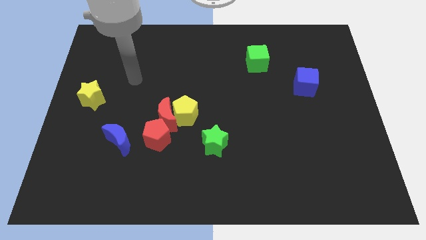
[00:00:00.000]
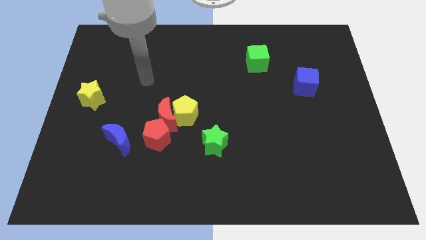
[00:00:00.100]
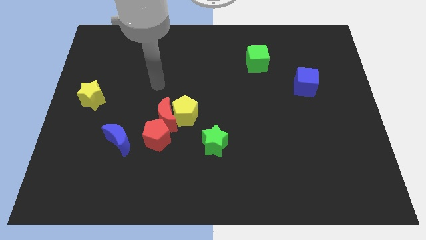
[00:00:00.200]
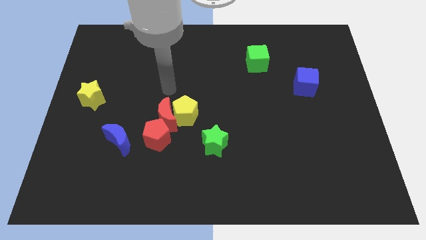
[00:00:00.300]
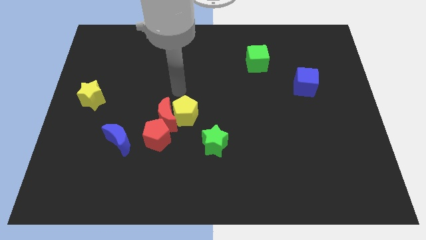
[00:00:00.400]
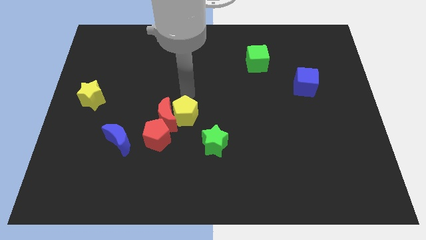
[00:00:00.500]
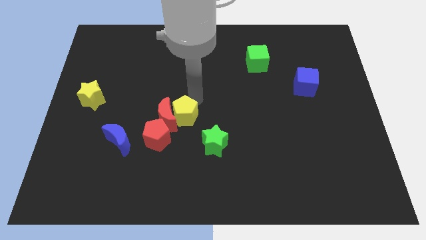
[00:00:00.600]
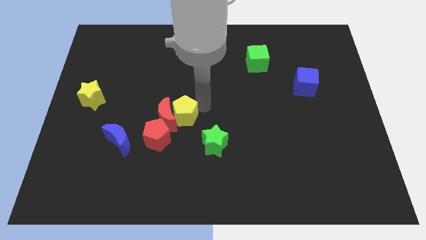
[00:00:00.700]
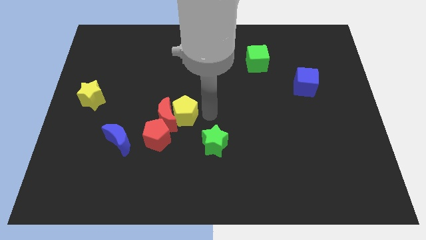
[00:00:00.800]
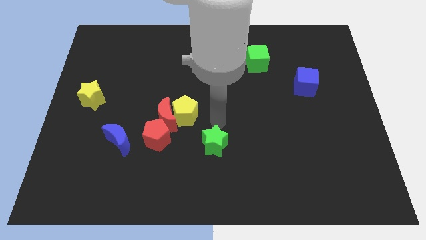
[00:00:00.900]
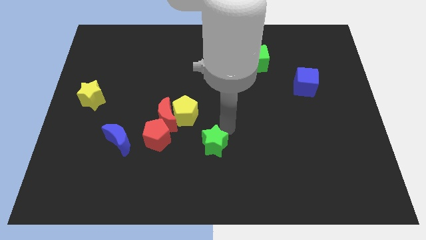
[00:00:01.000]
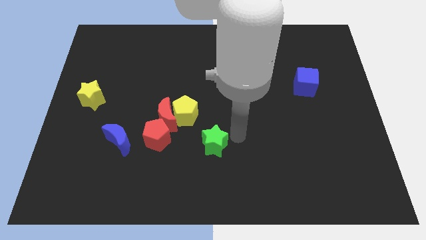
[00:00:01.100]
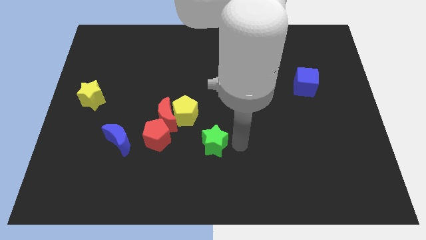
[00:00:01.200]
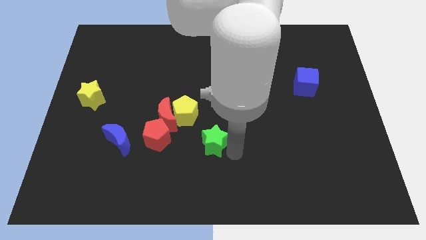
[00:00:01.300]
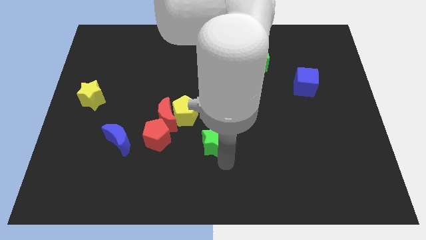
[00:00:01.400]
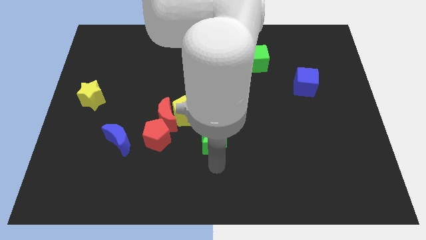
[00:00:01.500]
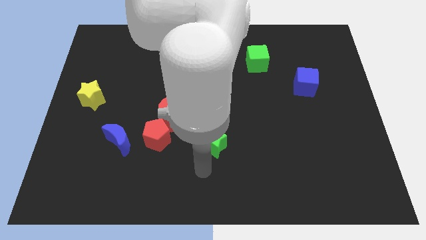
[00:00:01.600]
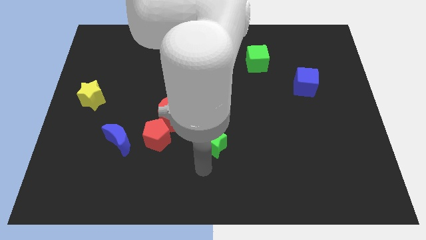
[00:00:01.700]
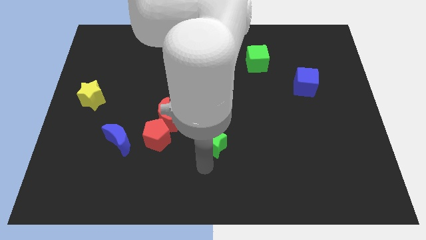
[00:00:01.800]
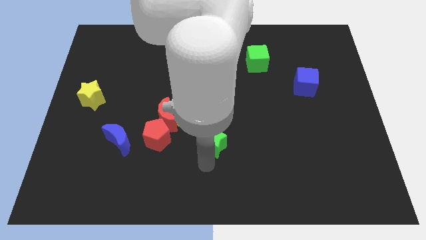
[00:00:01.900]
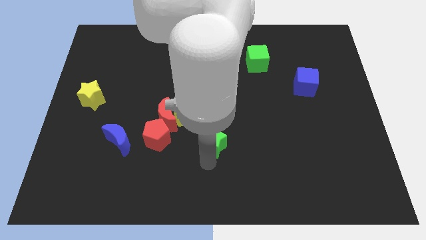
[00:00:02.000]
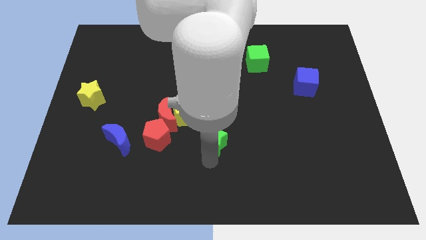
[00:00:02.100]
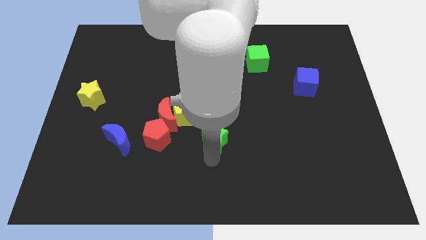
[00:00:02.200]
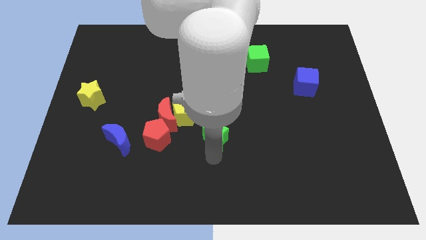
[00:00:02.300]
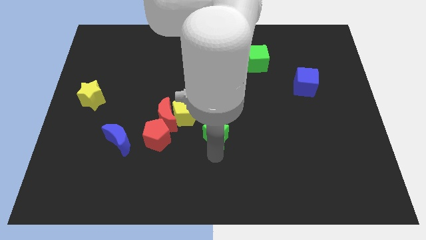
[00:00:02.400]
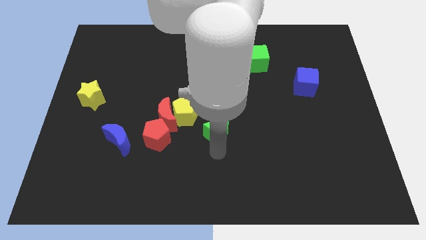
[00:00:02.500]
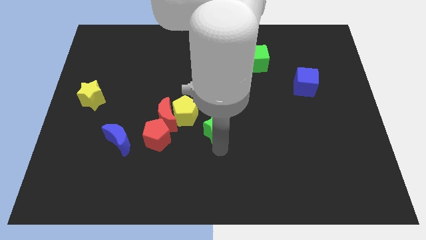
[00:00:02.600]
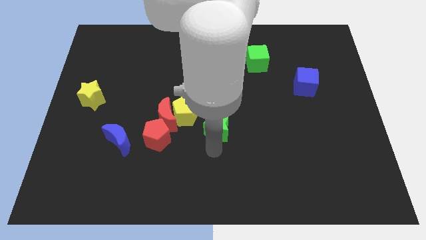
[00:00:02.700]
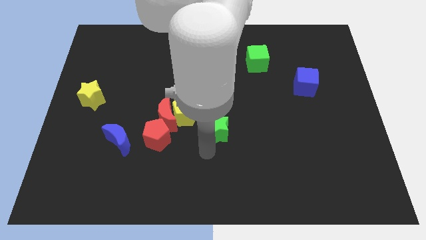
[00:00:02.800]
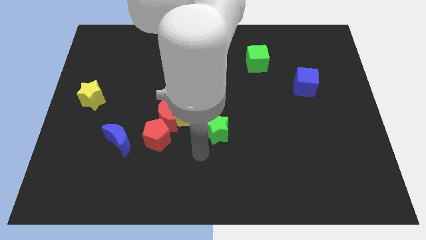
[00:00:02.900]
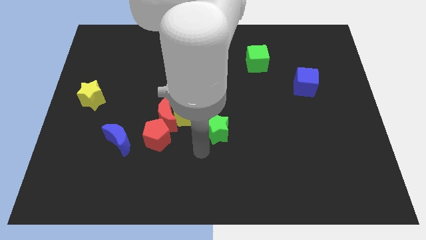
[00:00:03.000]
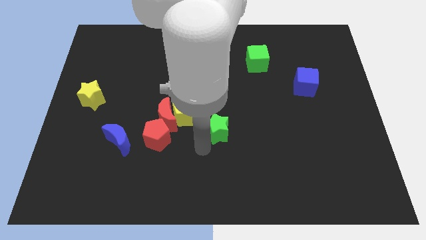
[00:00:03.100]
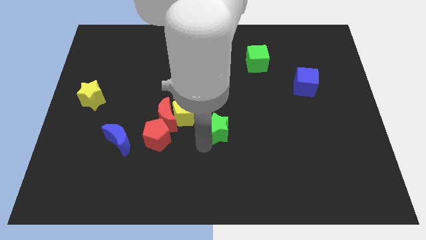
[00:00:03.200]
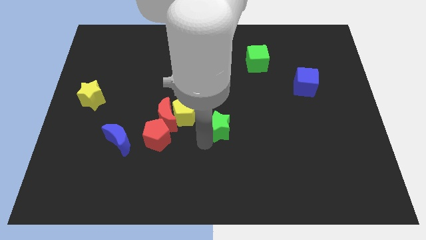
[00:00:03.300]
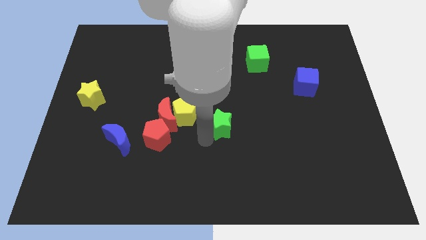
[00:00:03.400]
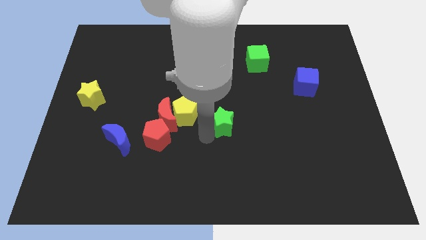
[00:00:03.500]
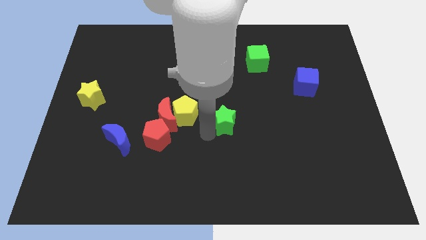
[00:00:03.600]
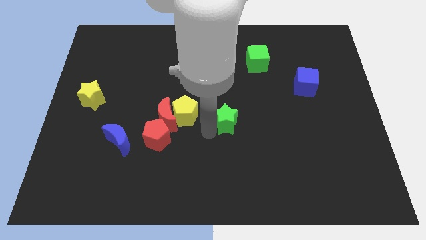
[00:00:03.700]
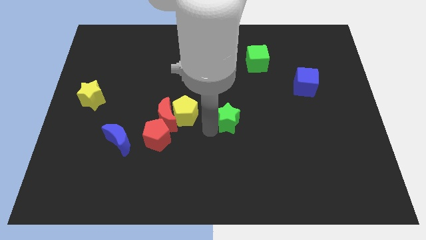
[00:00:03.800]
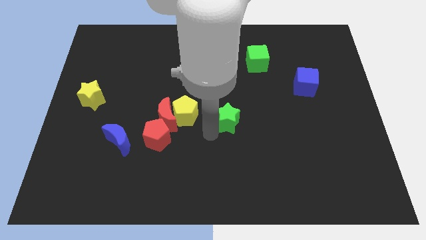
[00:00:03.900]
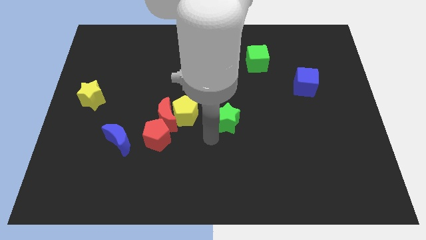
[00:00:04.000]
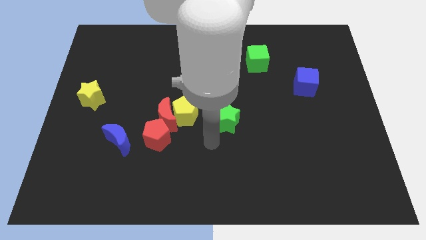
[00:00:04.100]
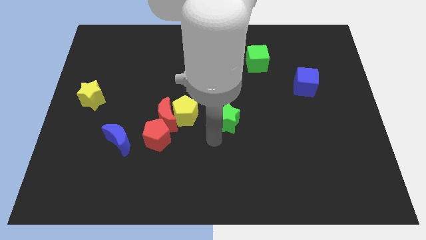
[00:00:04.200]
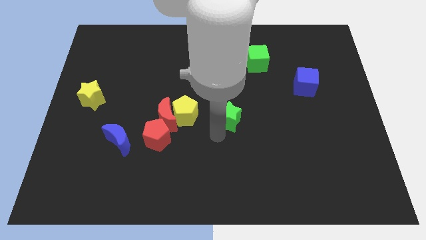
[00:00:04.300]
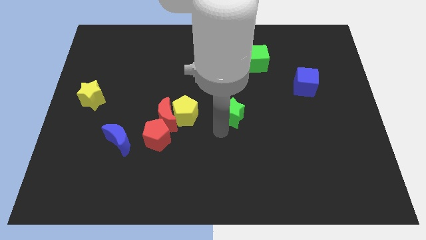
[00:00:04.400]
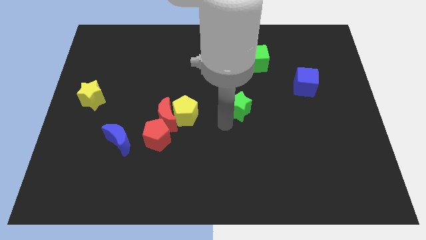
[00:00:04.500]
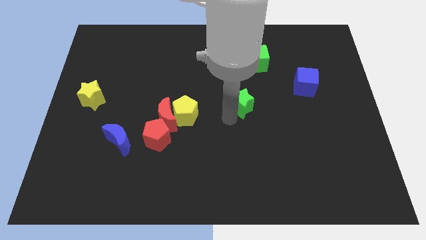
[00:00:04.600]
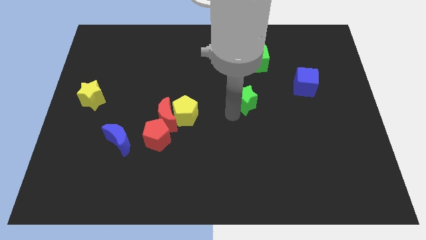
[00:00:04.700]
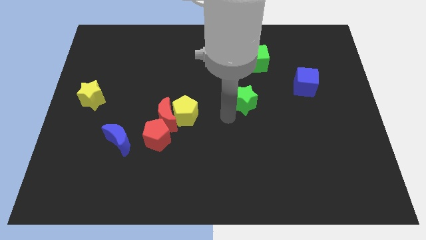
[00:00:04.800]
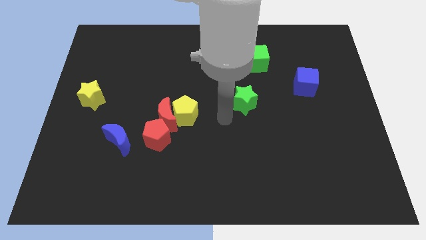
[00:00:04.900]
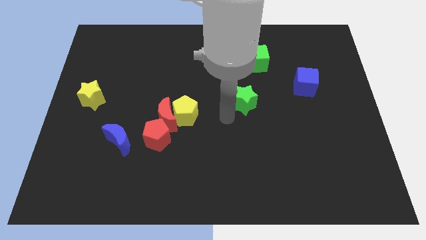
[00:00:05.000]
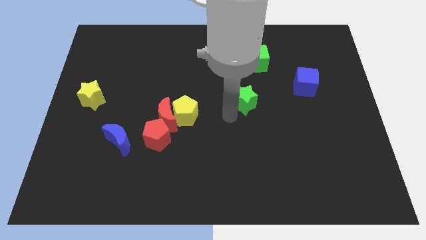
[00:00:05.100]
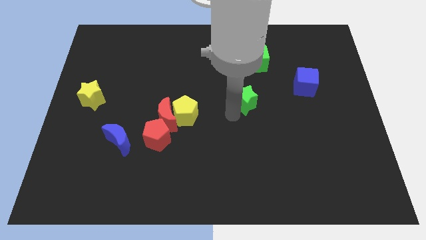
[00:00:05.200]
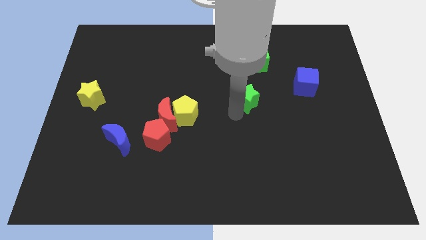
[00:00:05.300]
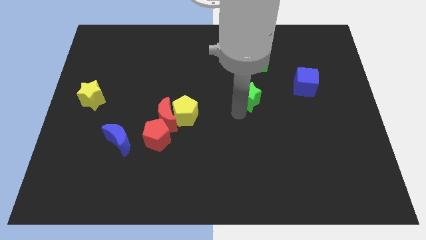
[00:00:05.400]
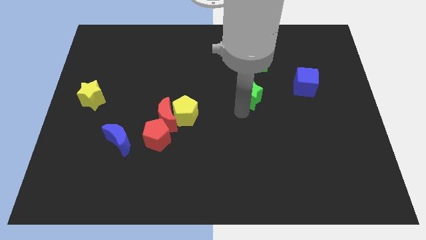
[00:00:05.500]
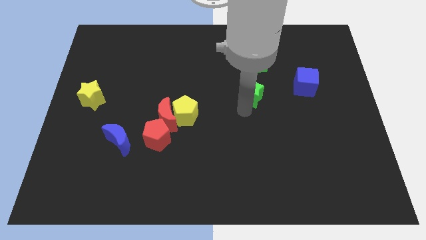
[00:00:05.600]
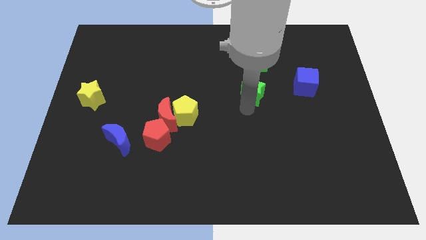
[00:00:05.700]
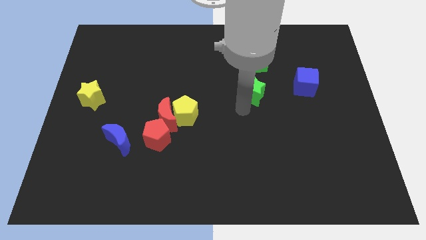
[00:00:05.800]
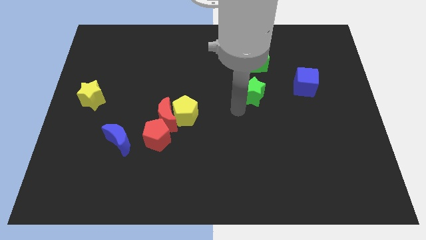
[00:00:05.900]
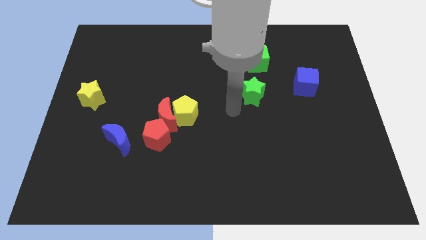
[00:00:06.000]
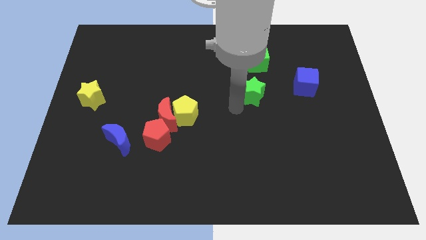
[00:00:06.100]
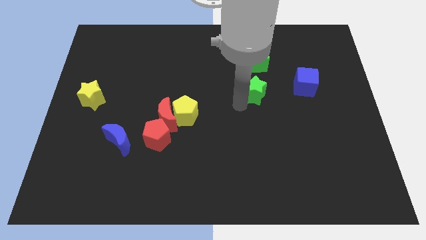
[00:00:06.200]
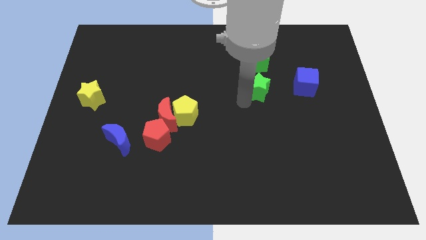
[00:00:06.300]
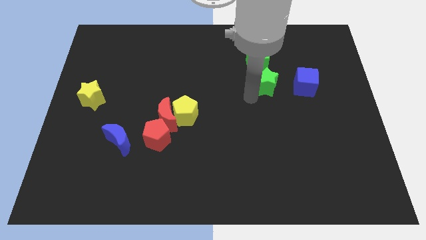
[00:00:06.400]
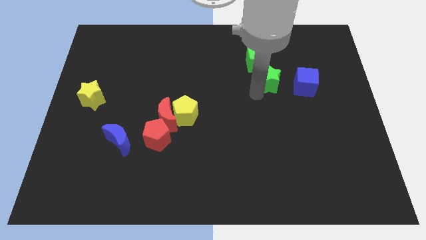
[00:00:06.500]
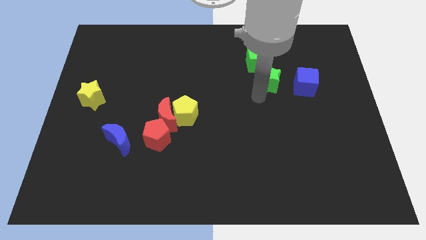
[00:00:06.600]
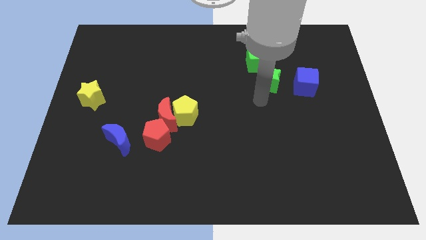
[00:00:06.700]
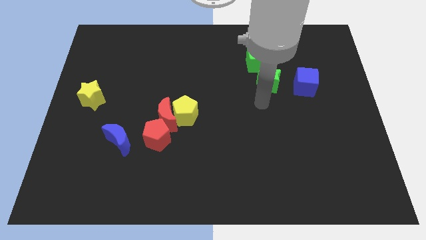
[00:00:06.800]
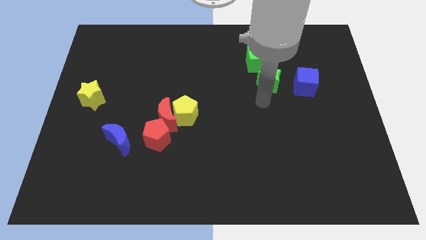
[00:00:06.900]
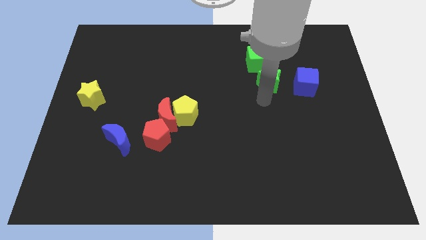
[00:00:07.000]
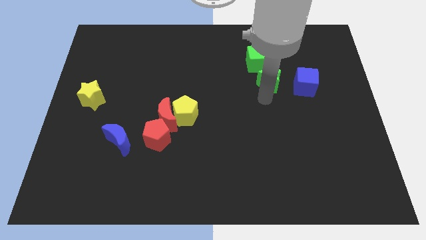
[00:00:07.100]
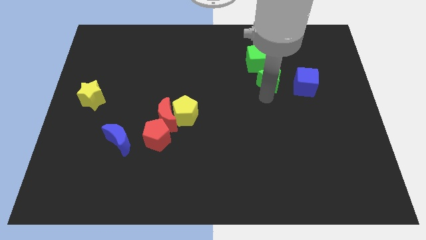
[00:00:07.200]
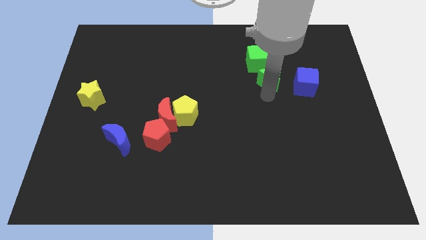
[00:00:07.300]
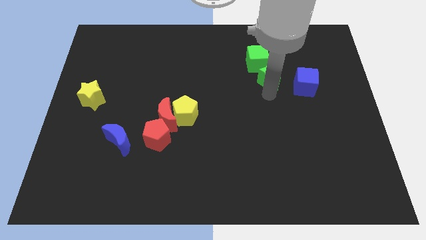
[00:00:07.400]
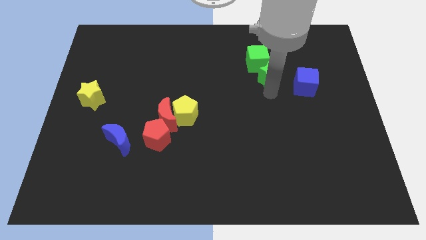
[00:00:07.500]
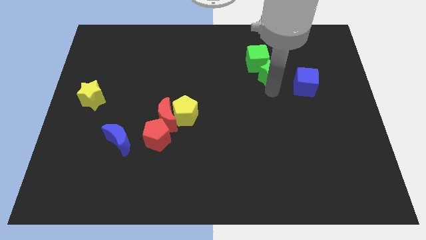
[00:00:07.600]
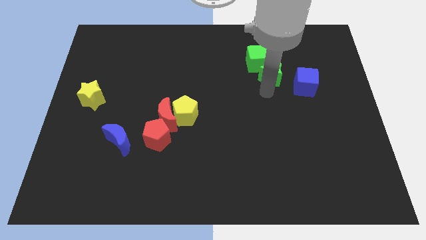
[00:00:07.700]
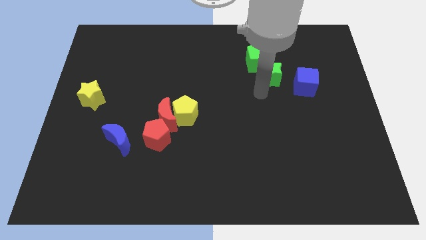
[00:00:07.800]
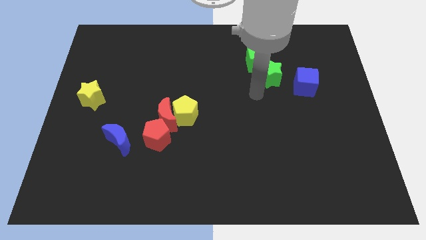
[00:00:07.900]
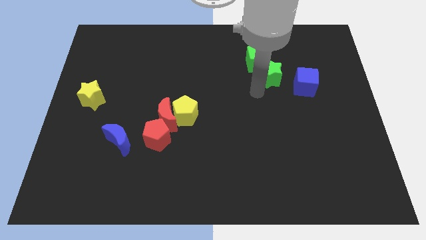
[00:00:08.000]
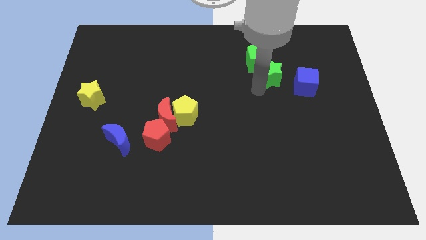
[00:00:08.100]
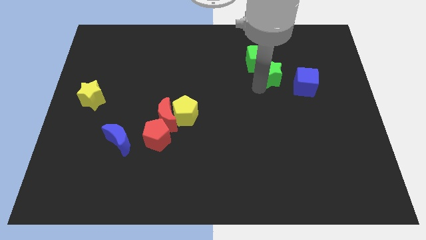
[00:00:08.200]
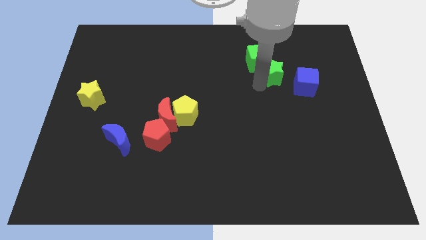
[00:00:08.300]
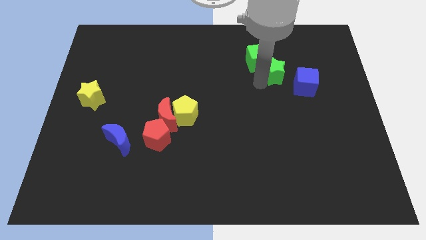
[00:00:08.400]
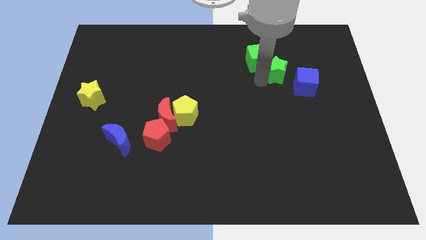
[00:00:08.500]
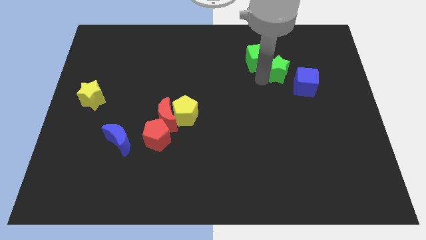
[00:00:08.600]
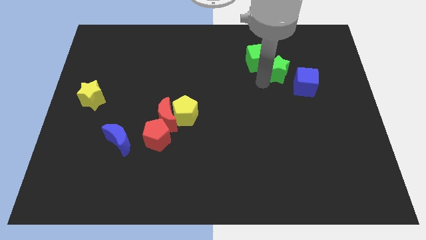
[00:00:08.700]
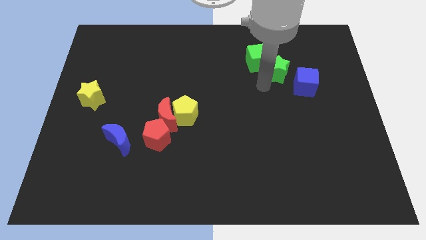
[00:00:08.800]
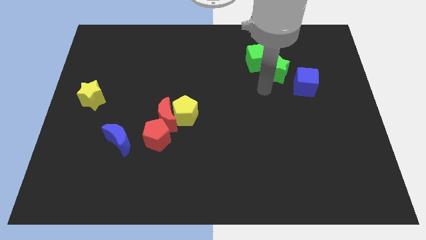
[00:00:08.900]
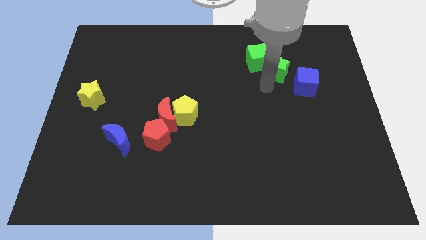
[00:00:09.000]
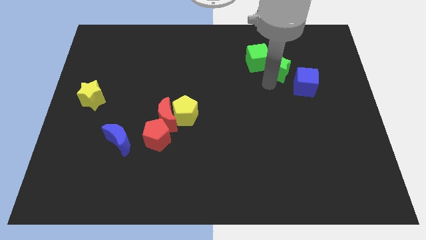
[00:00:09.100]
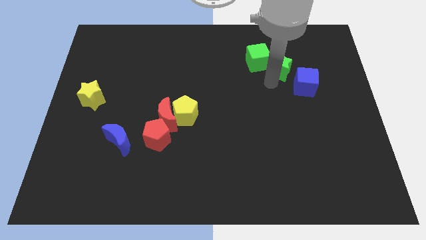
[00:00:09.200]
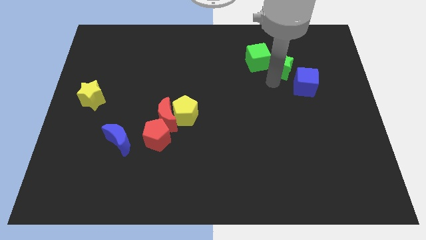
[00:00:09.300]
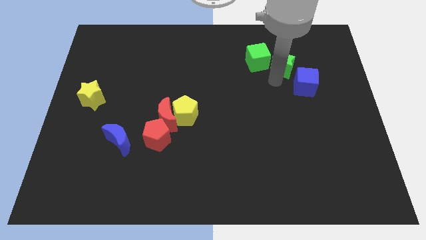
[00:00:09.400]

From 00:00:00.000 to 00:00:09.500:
push the green star above the blue cube
